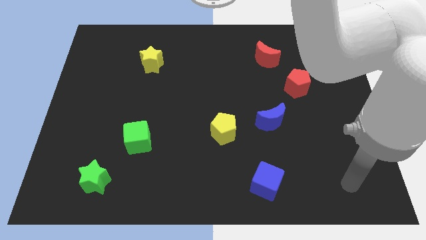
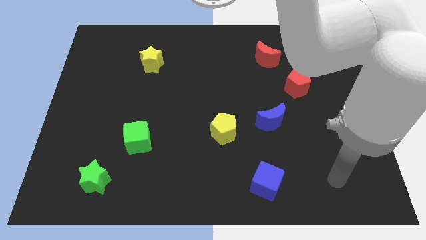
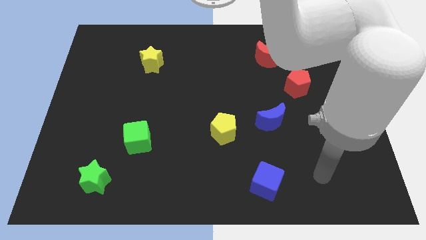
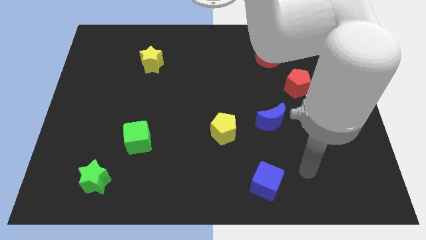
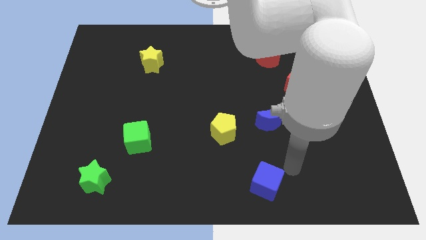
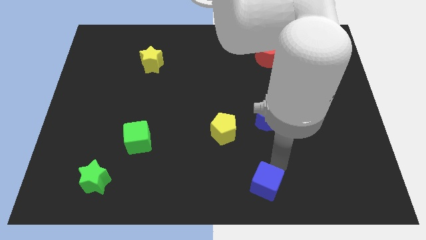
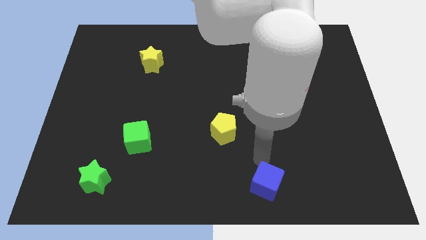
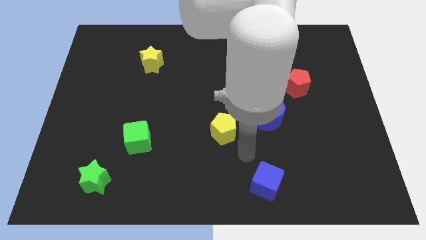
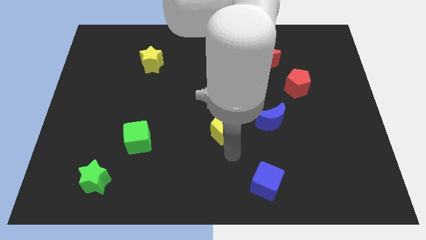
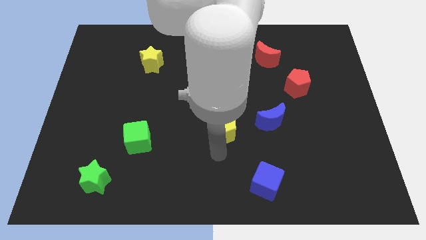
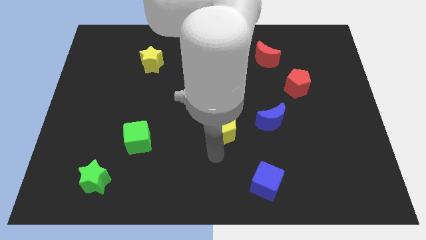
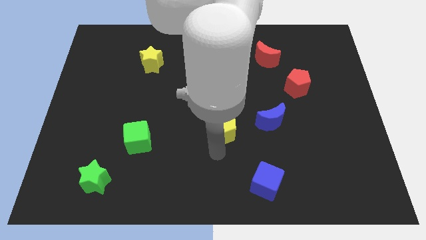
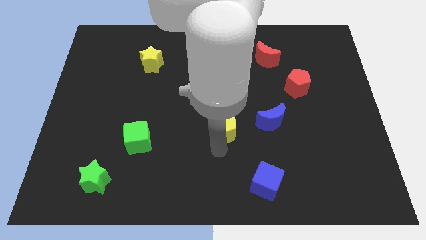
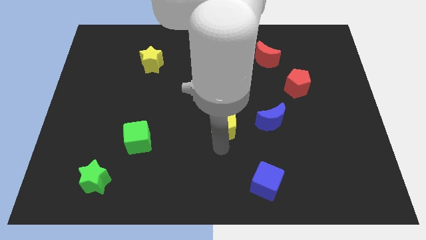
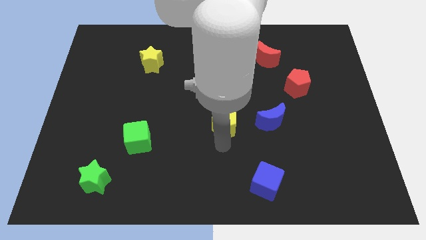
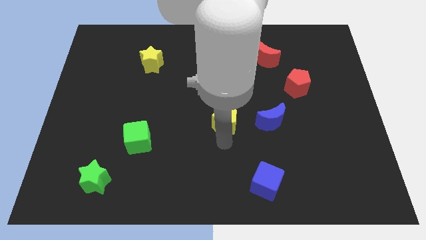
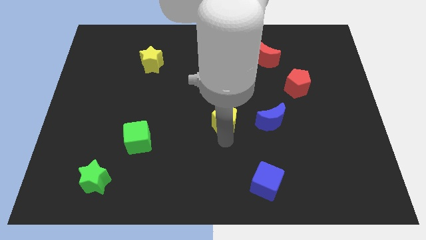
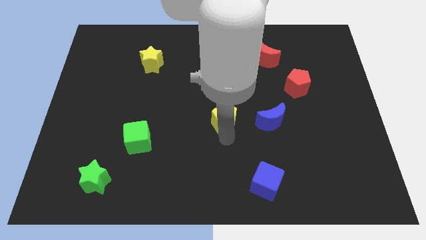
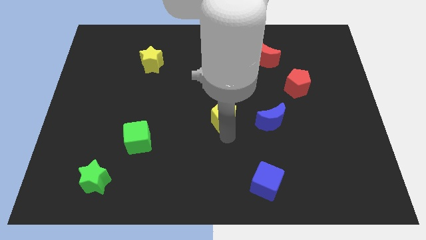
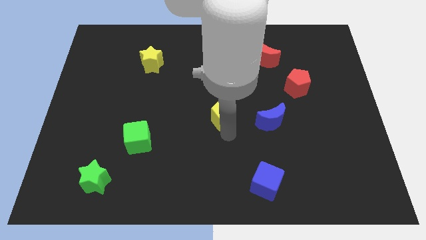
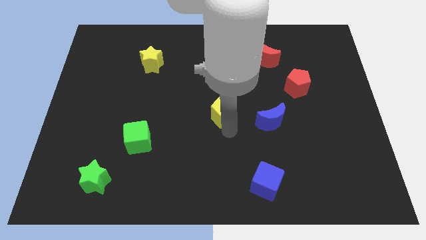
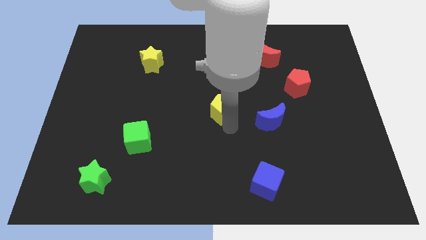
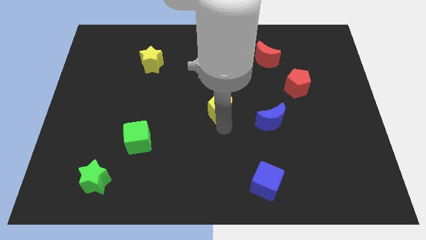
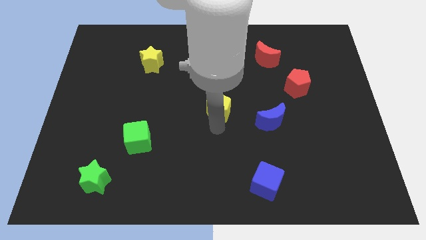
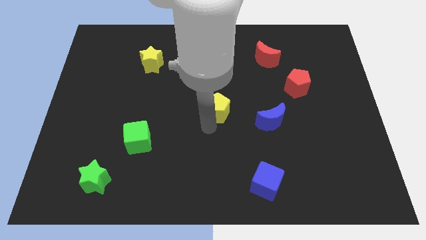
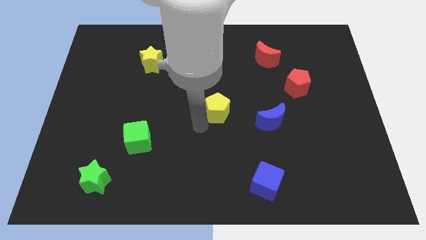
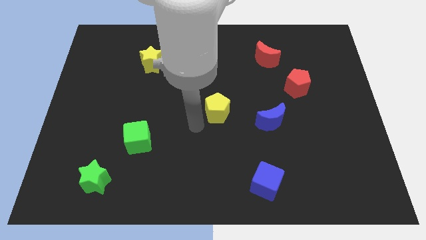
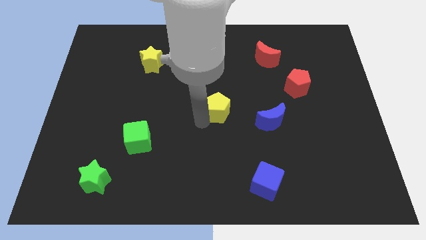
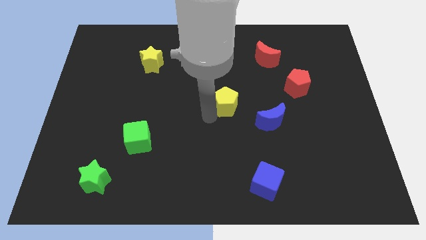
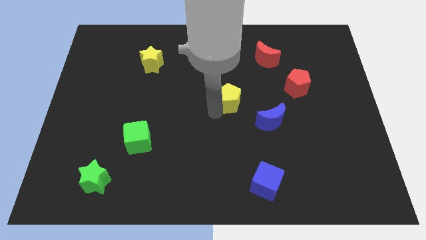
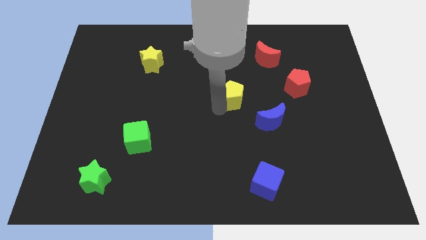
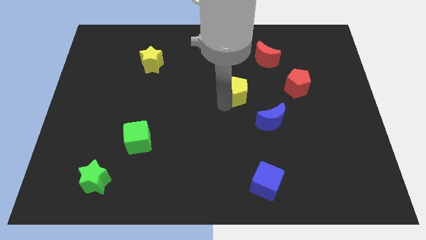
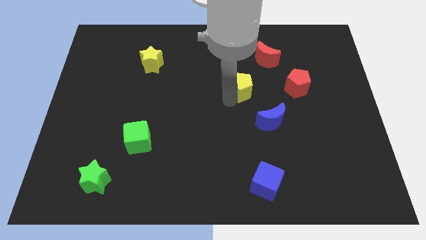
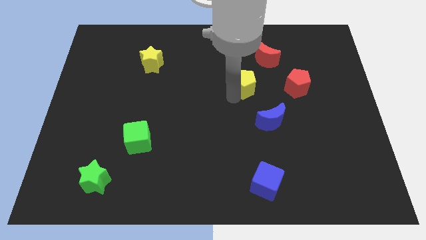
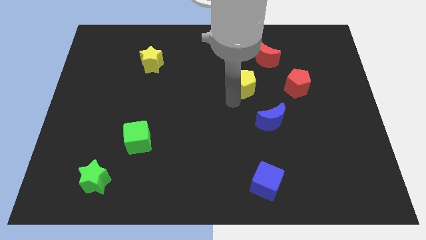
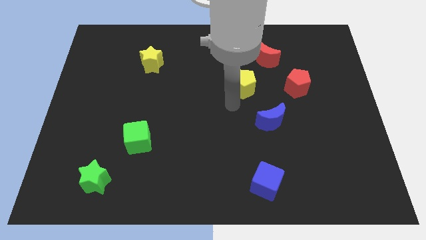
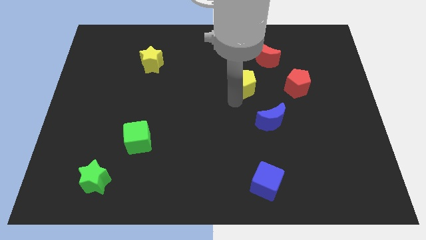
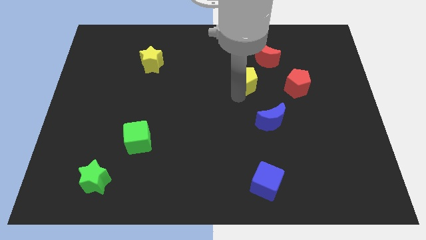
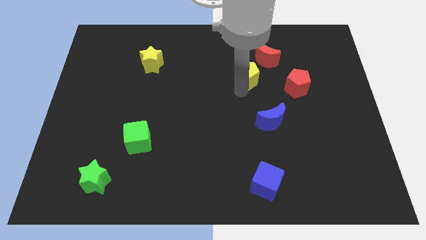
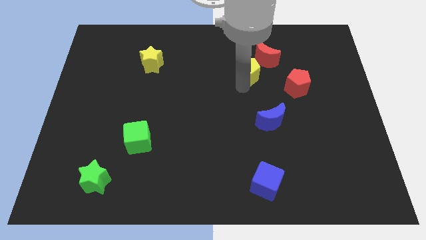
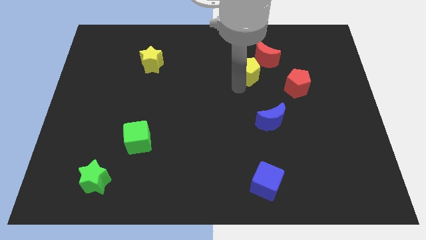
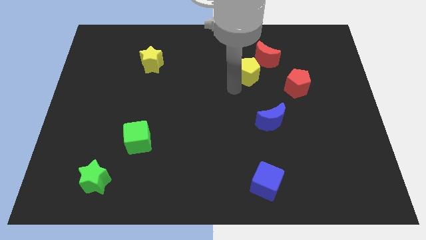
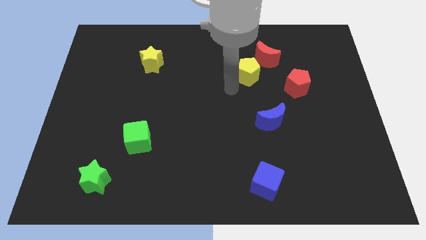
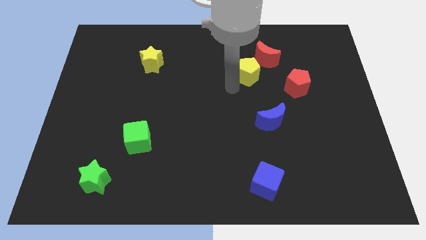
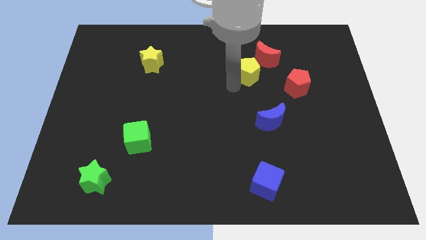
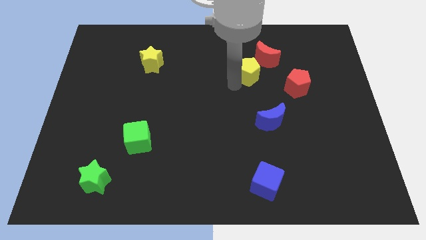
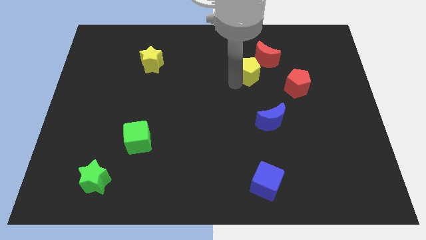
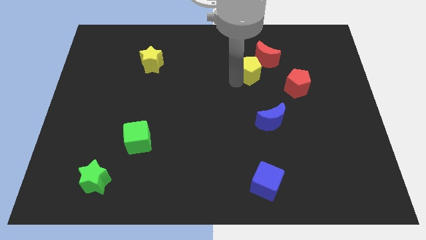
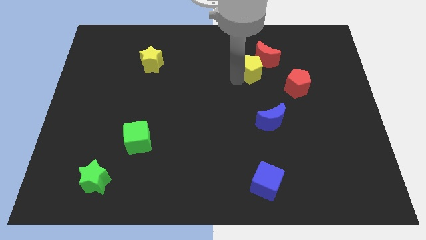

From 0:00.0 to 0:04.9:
push the yellow pentagon next to the red moon

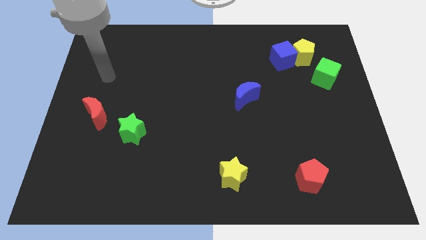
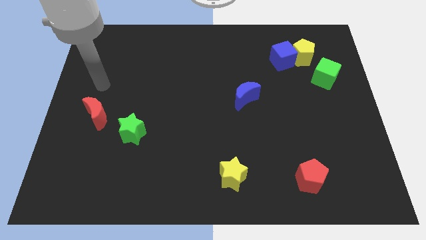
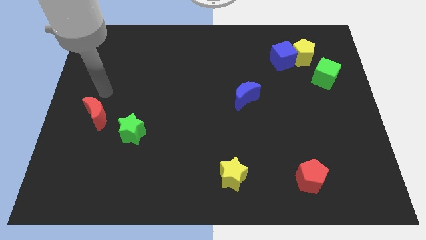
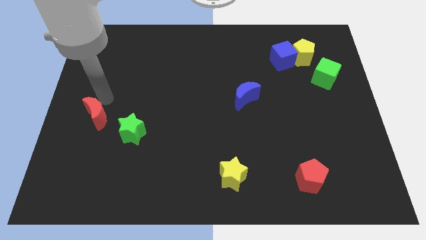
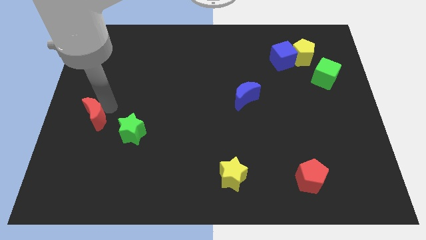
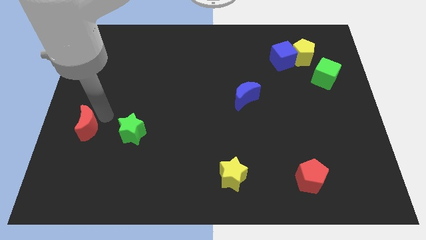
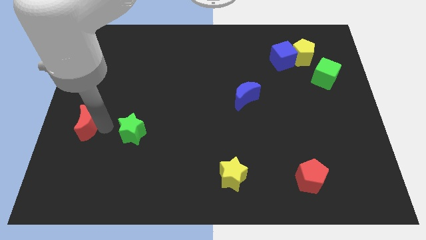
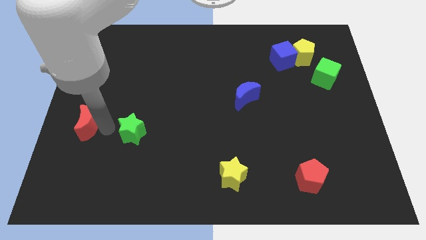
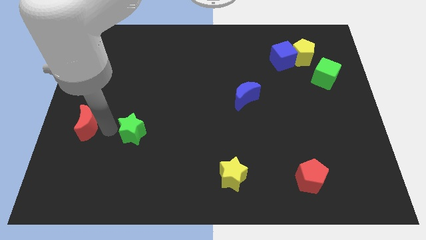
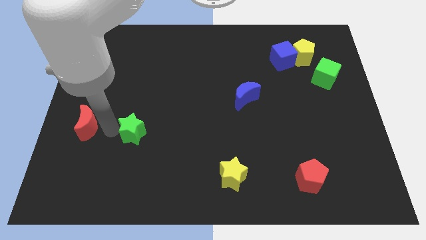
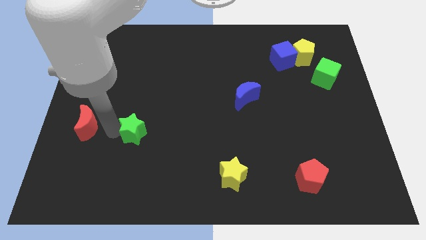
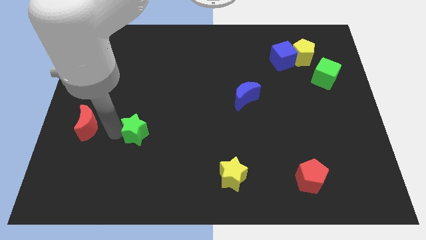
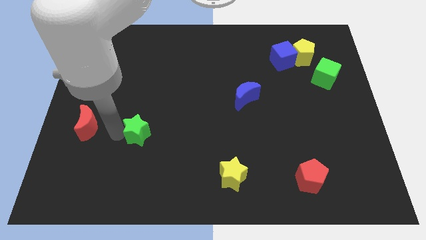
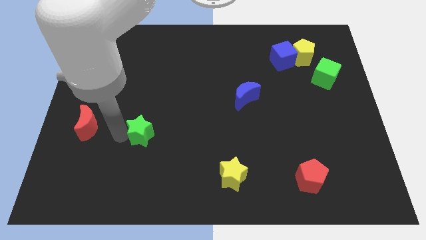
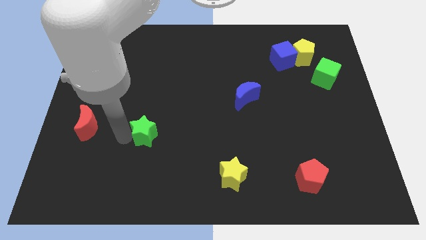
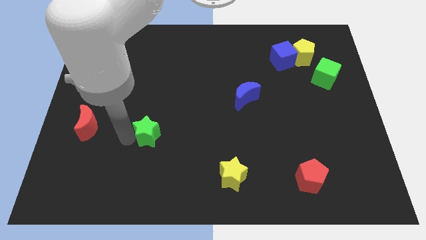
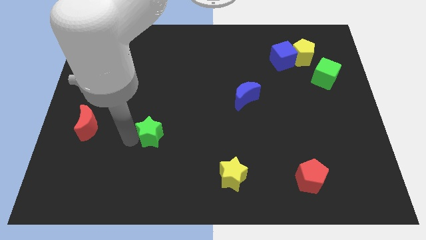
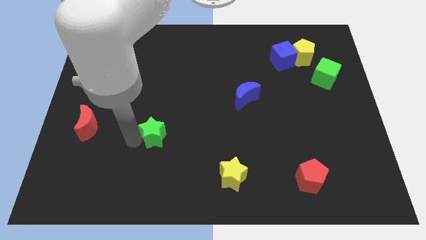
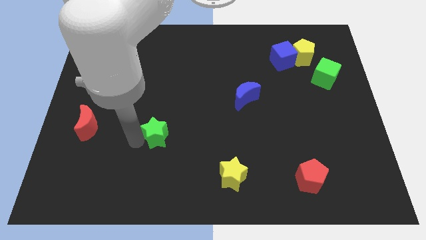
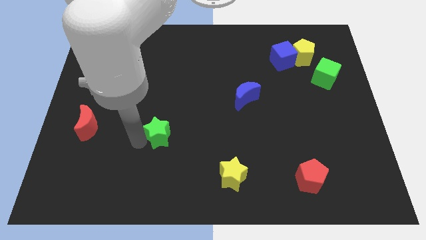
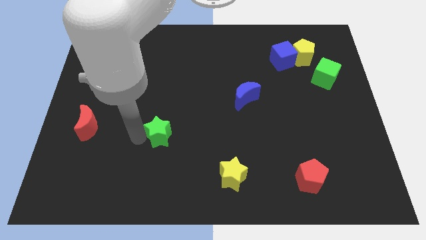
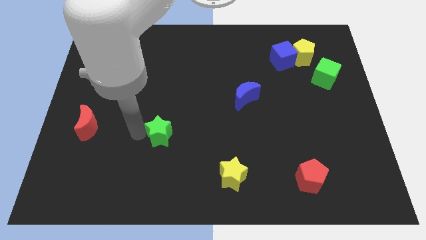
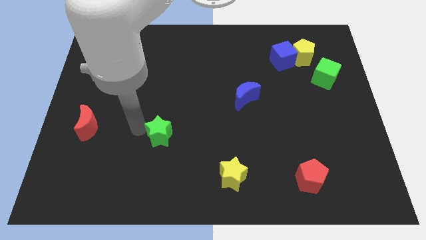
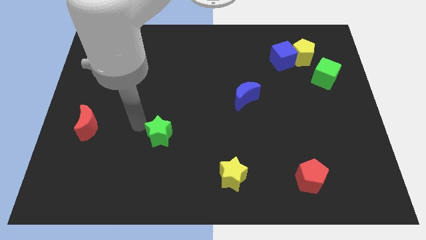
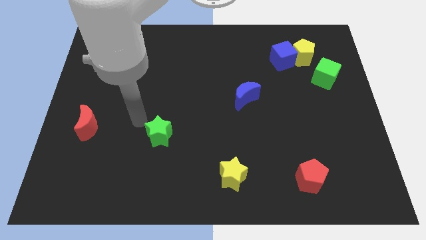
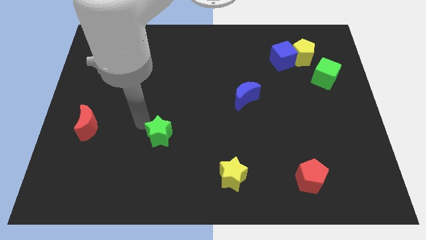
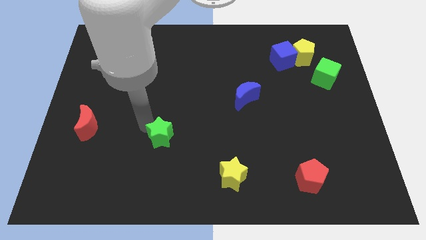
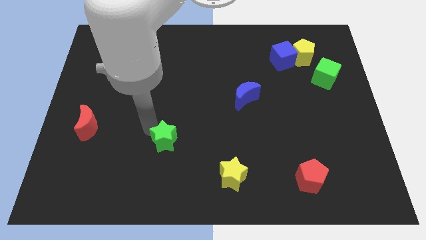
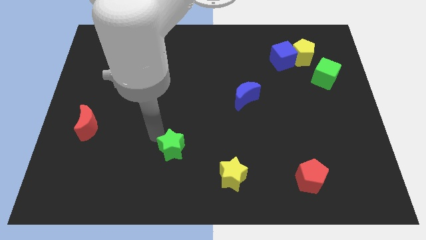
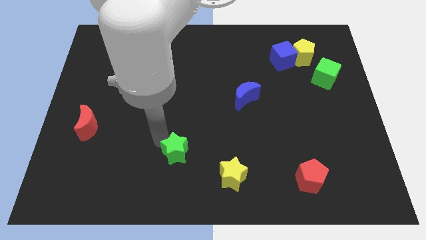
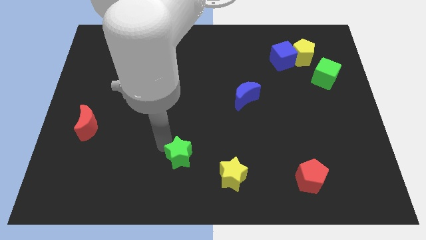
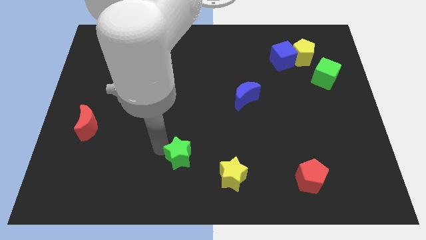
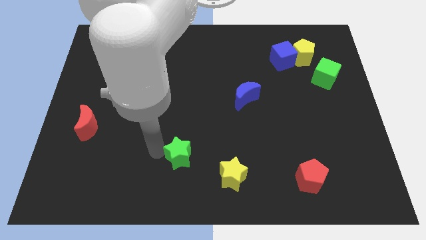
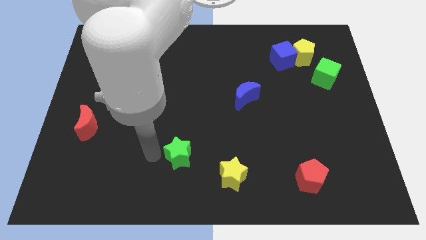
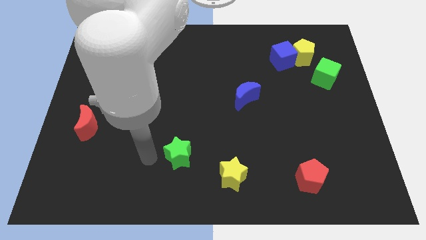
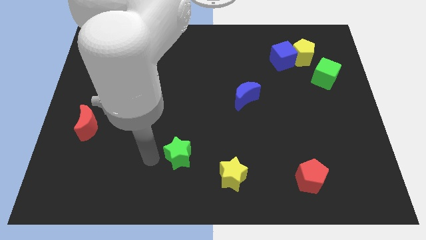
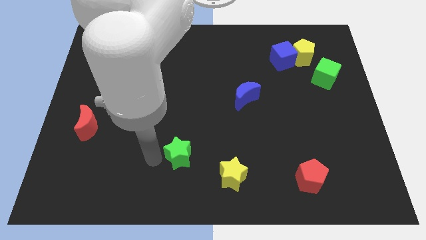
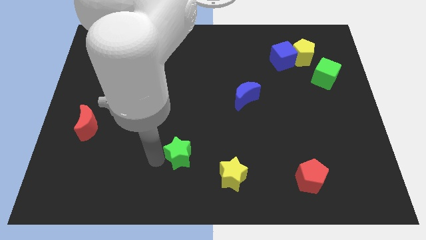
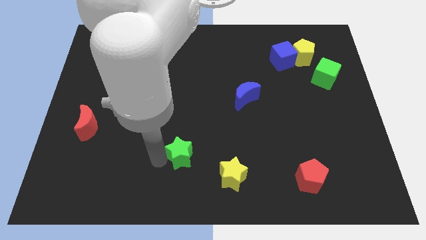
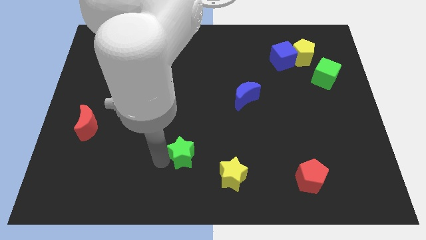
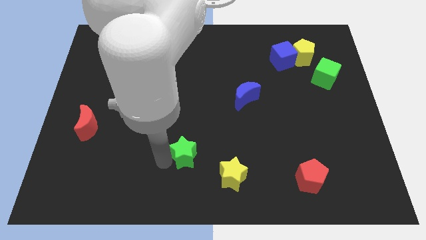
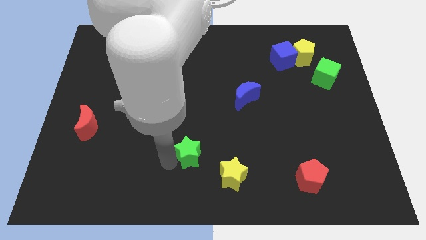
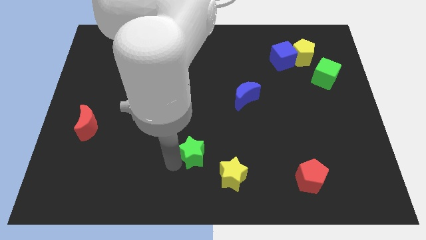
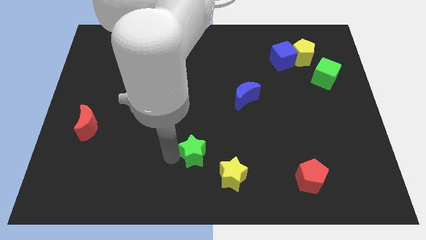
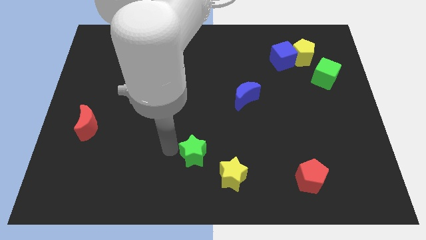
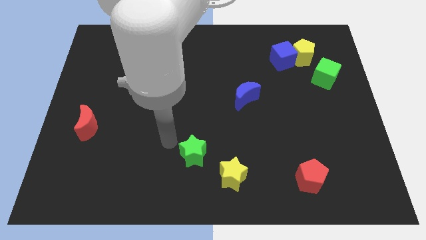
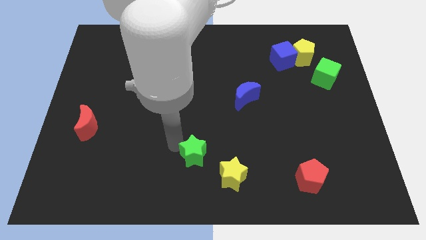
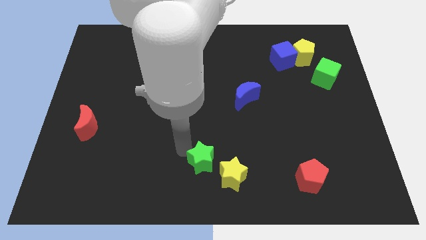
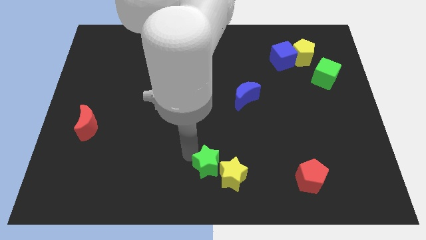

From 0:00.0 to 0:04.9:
slide the green star close to the yellow star
